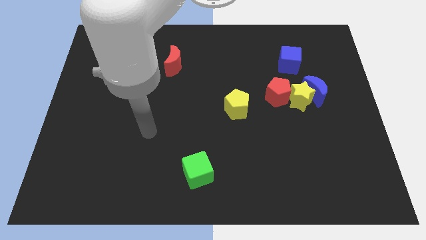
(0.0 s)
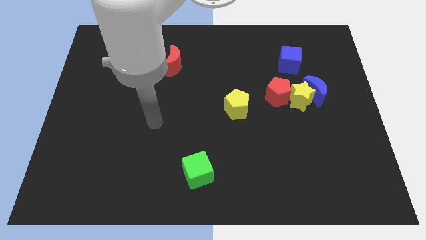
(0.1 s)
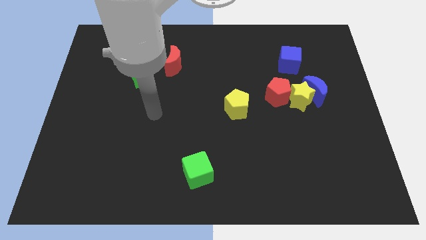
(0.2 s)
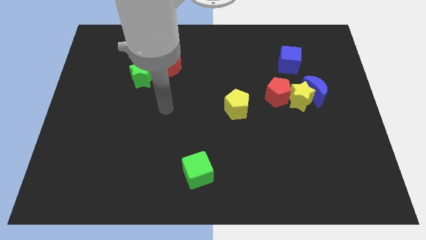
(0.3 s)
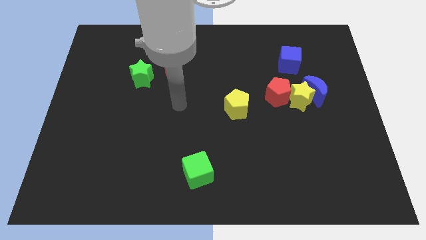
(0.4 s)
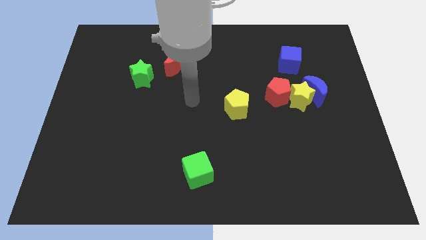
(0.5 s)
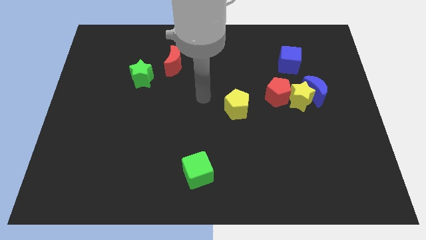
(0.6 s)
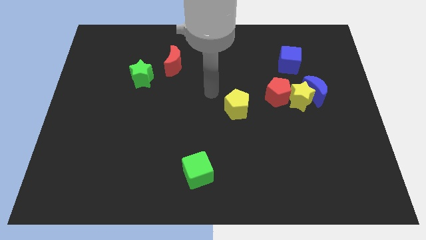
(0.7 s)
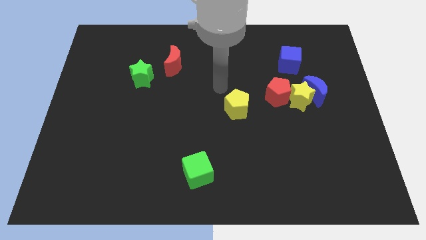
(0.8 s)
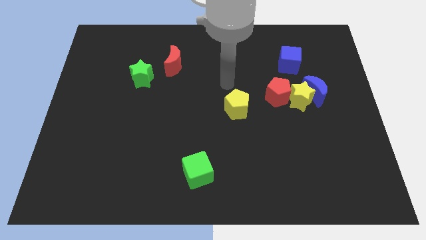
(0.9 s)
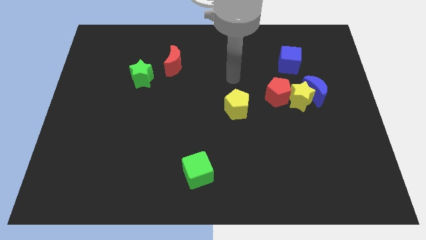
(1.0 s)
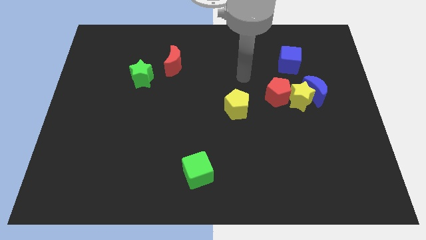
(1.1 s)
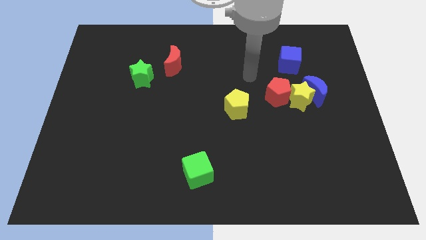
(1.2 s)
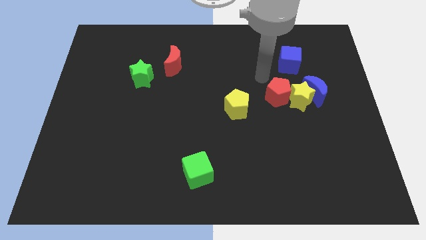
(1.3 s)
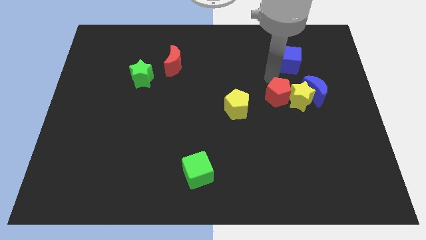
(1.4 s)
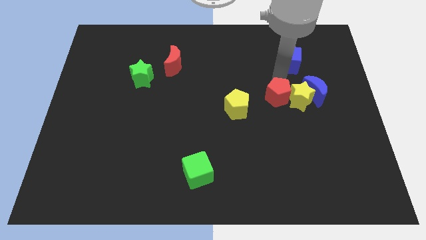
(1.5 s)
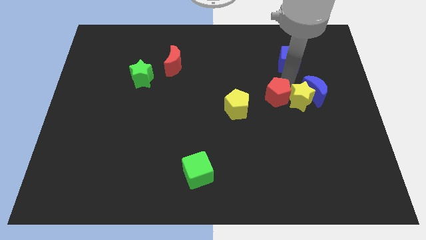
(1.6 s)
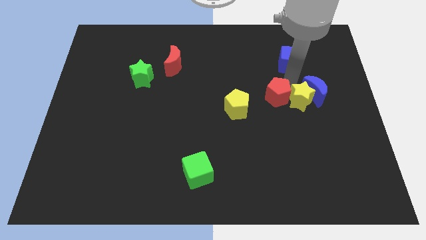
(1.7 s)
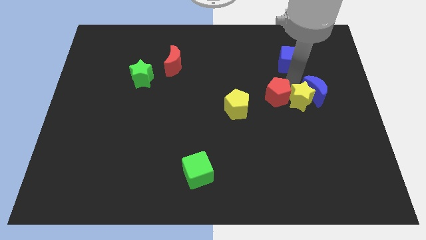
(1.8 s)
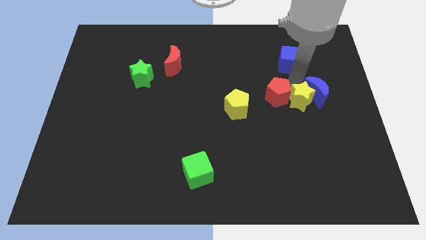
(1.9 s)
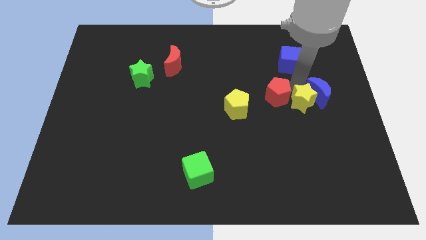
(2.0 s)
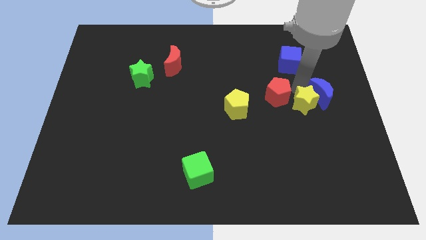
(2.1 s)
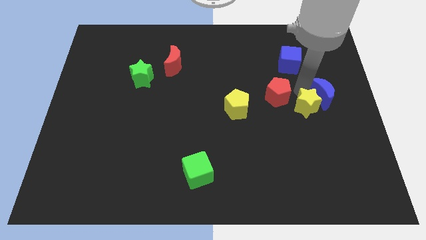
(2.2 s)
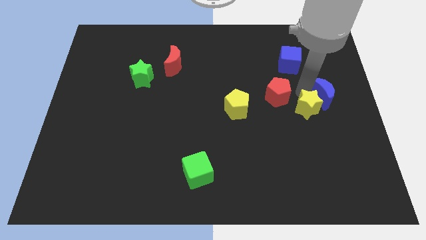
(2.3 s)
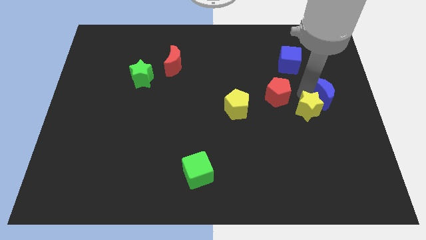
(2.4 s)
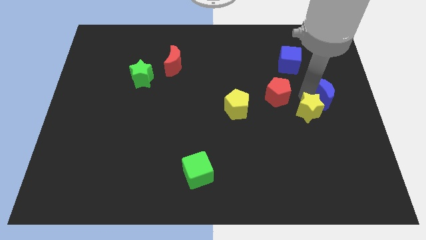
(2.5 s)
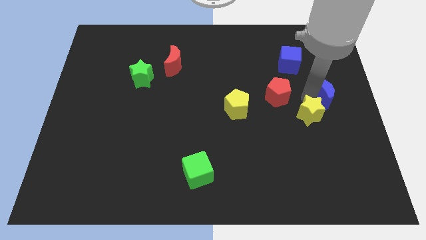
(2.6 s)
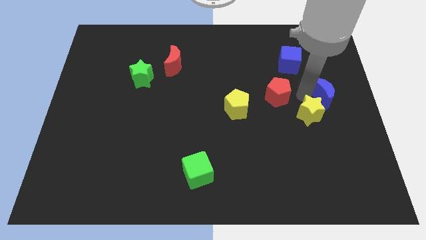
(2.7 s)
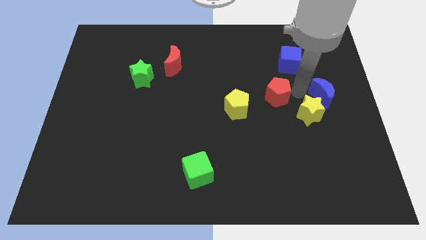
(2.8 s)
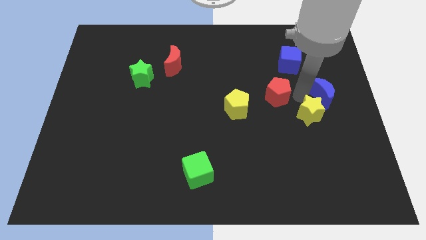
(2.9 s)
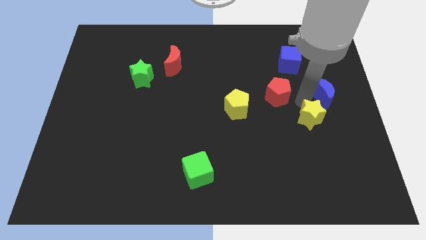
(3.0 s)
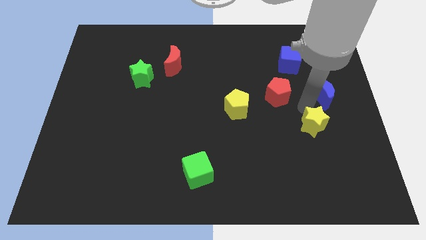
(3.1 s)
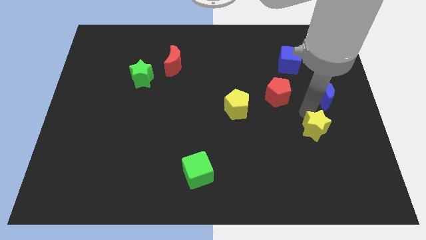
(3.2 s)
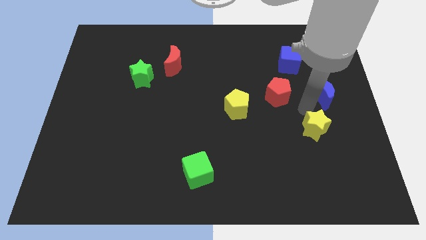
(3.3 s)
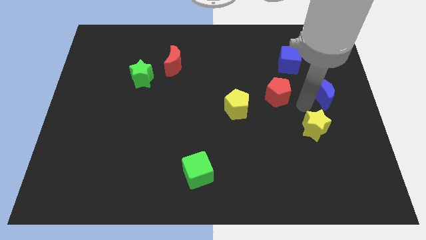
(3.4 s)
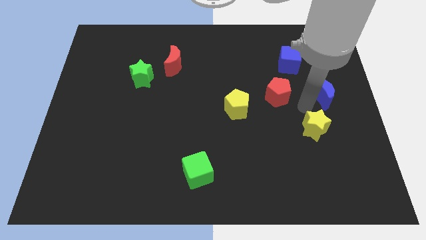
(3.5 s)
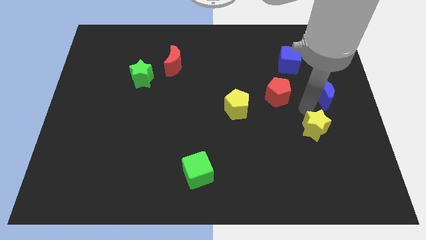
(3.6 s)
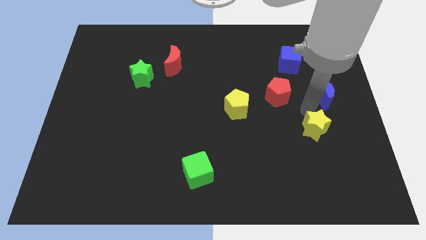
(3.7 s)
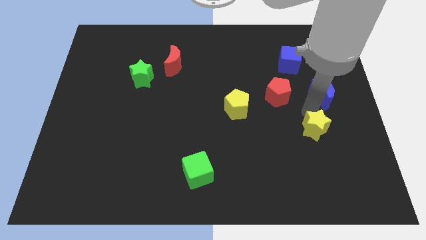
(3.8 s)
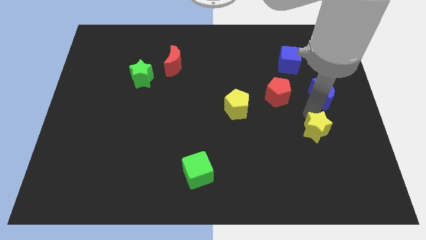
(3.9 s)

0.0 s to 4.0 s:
move the yellow star away from the blue moon and red pentagon

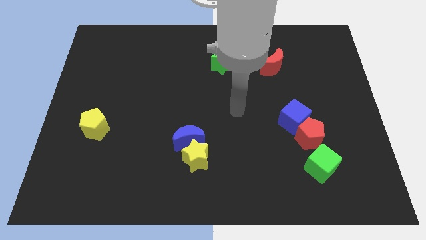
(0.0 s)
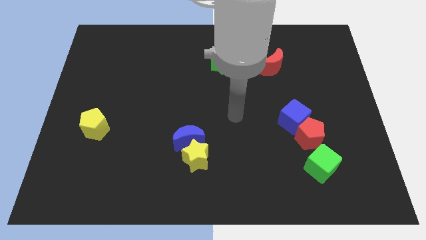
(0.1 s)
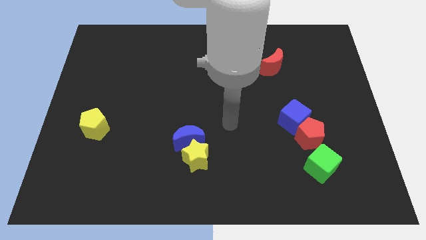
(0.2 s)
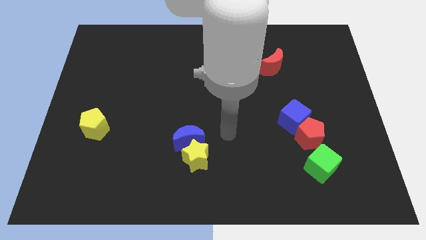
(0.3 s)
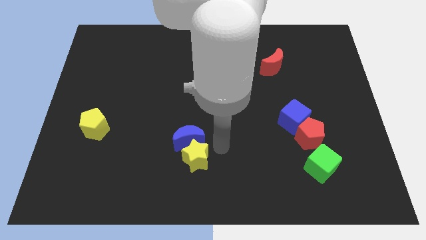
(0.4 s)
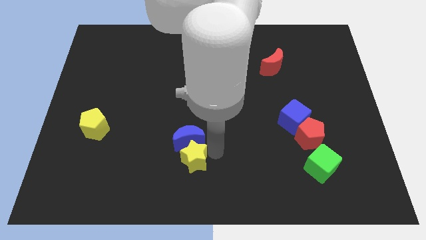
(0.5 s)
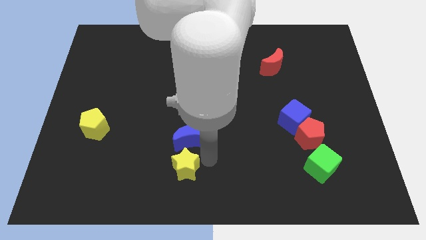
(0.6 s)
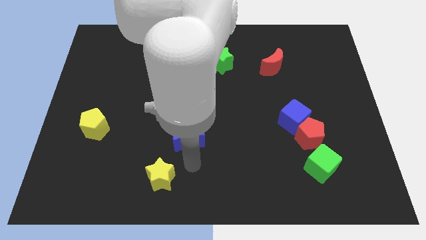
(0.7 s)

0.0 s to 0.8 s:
pull the blue moon apart from the yellow star

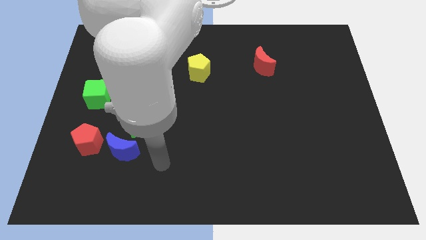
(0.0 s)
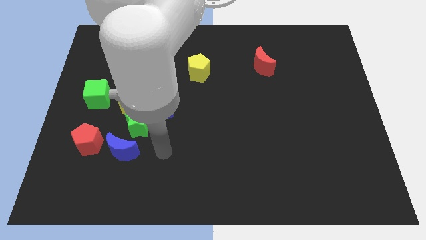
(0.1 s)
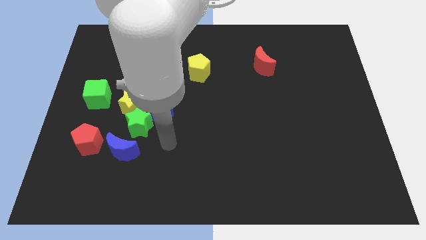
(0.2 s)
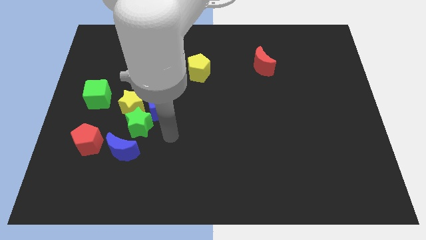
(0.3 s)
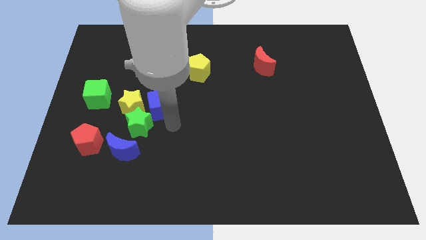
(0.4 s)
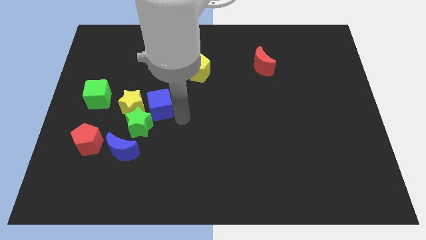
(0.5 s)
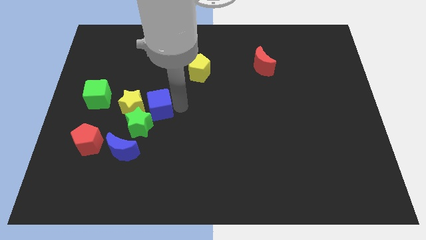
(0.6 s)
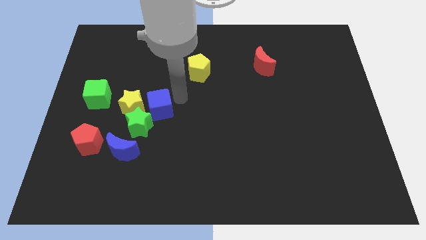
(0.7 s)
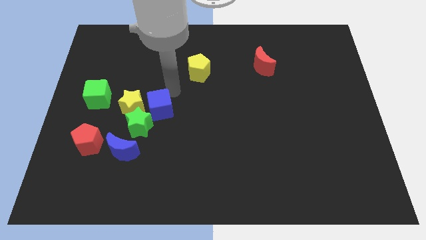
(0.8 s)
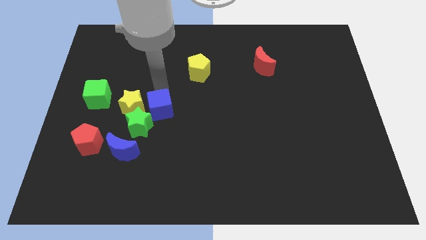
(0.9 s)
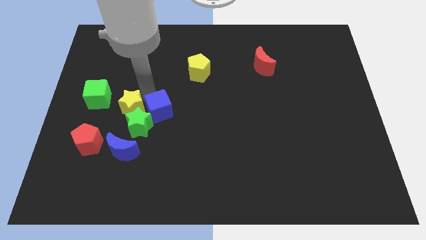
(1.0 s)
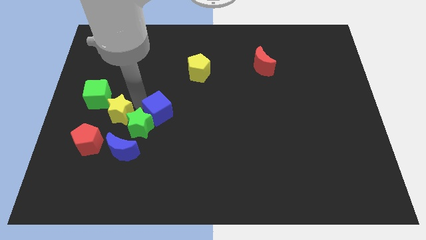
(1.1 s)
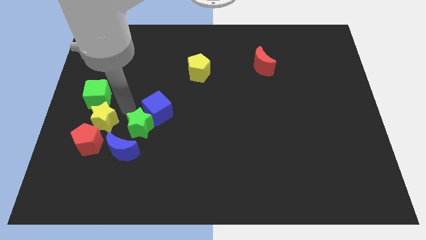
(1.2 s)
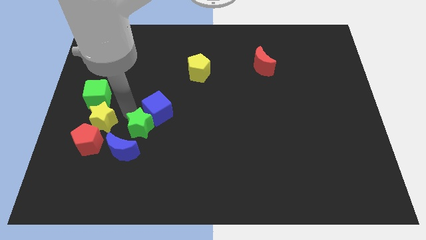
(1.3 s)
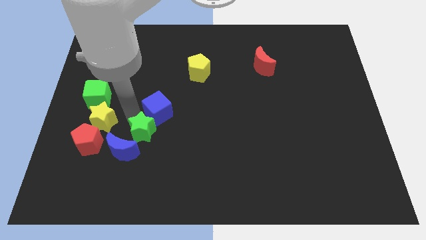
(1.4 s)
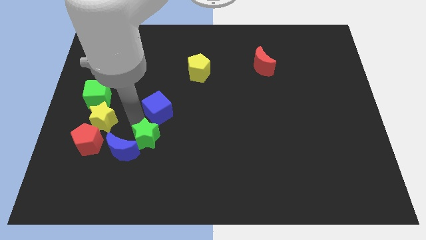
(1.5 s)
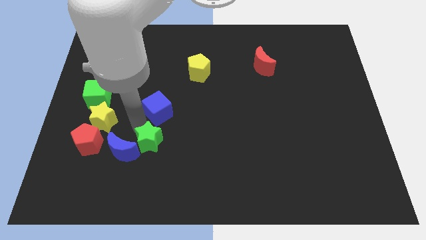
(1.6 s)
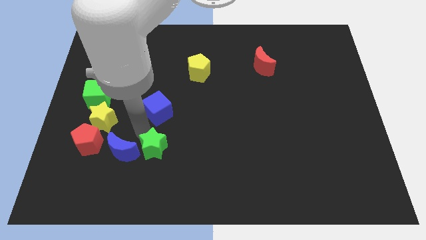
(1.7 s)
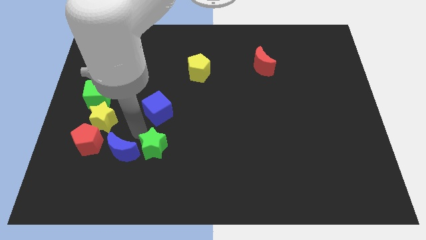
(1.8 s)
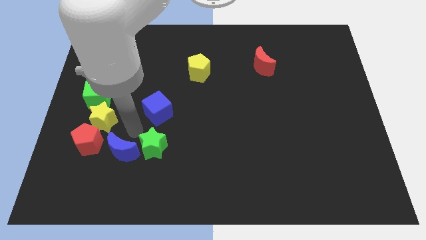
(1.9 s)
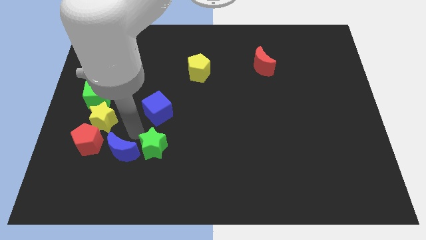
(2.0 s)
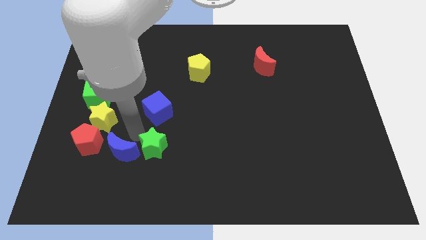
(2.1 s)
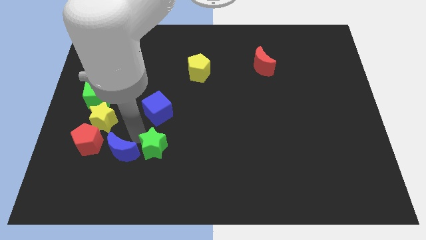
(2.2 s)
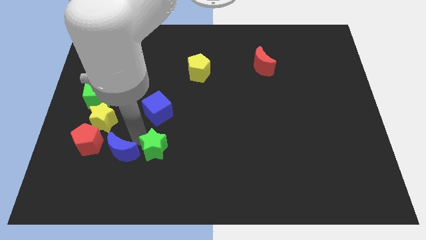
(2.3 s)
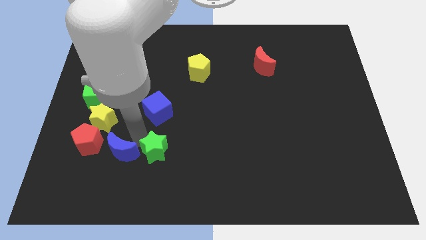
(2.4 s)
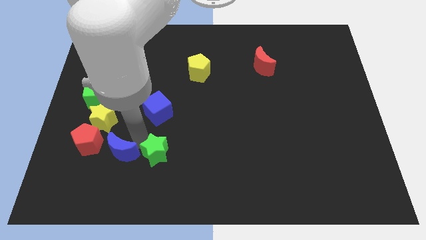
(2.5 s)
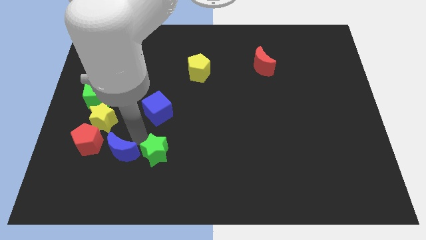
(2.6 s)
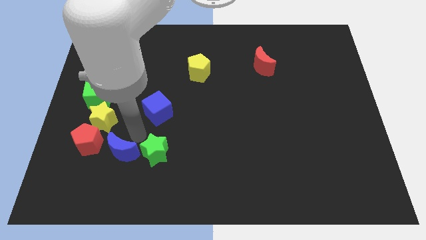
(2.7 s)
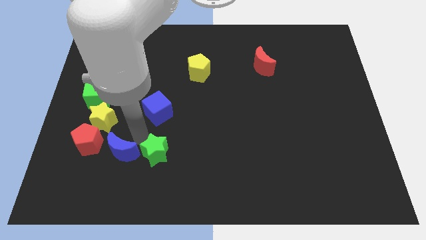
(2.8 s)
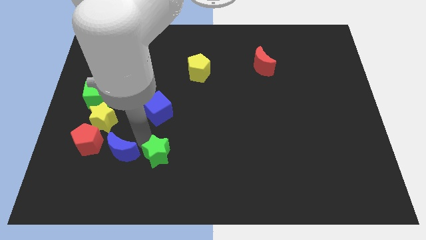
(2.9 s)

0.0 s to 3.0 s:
pull the green star apart from the yellow star, blue cube, and blue moon

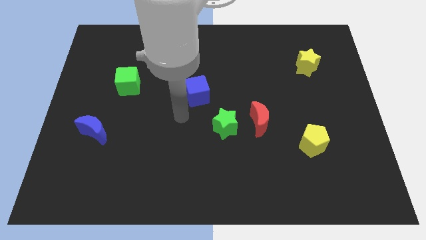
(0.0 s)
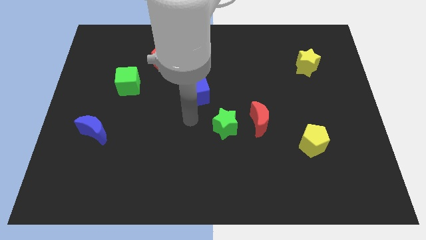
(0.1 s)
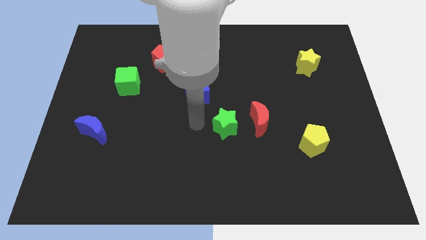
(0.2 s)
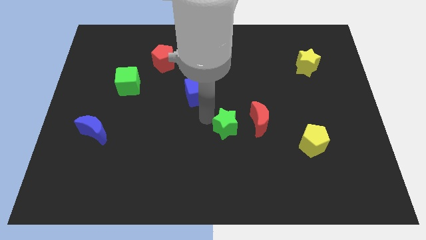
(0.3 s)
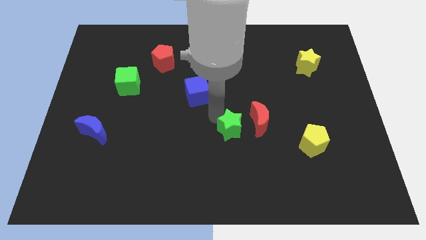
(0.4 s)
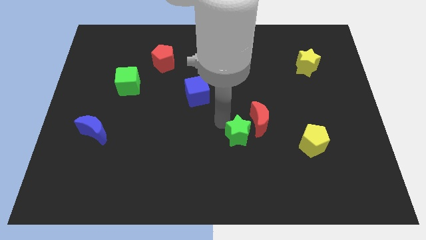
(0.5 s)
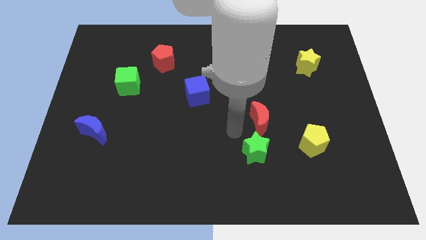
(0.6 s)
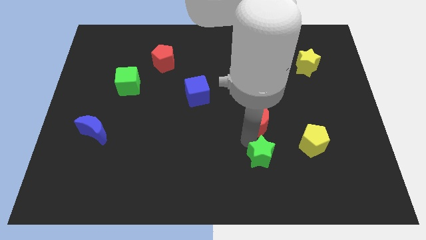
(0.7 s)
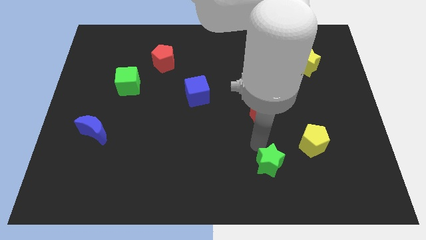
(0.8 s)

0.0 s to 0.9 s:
pull the red moon apart from the green star

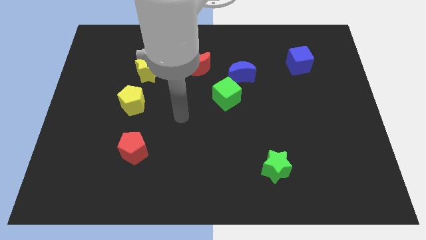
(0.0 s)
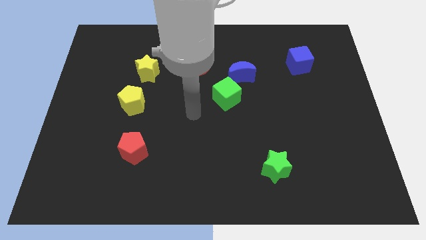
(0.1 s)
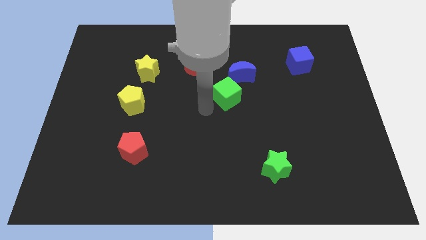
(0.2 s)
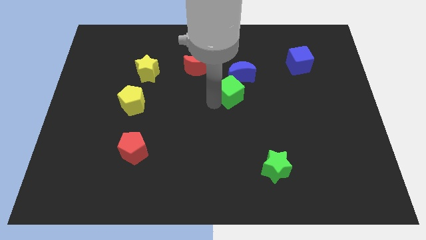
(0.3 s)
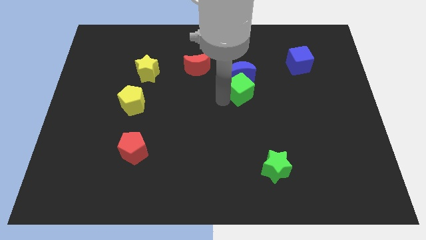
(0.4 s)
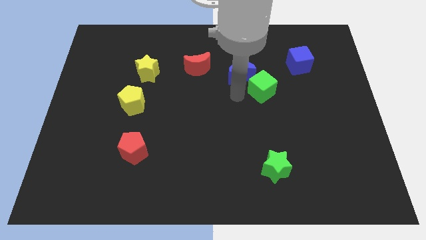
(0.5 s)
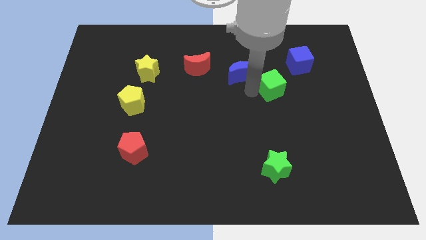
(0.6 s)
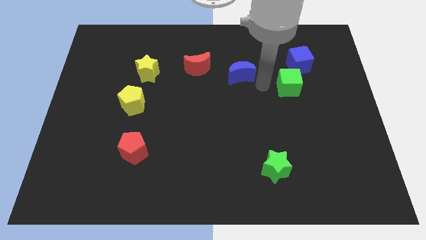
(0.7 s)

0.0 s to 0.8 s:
move the blue moon away from the green cube
